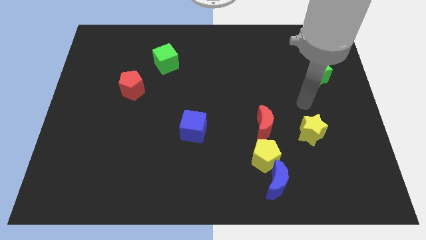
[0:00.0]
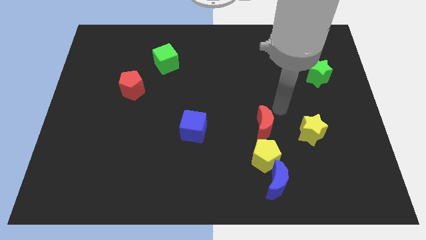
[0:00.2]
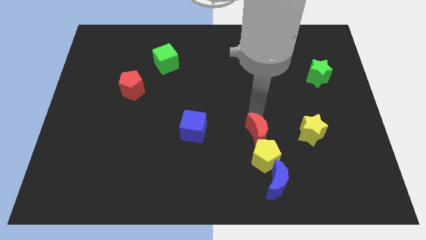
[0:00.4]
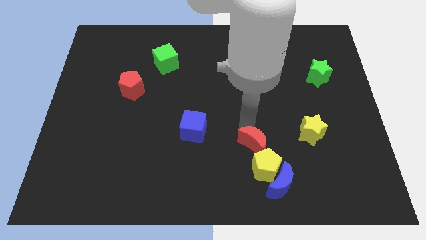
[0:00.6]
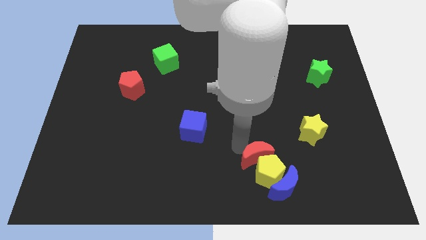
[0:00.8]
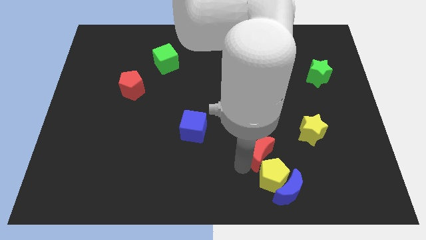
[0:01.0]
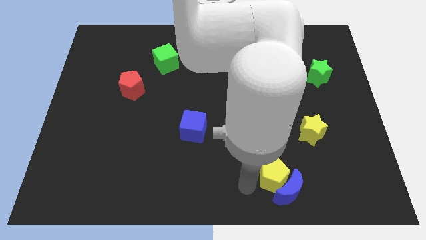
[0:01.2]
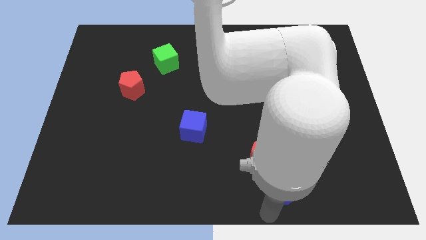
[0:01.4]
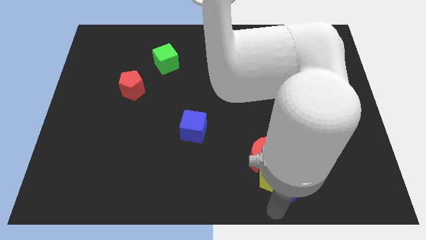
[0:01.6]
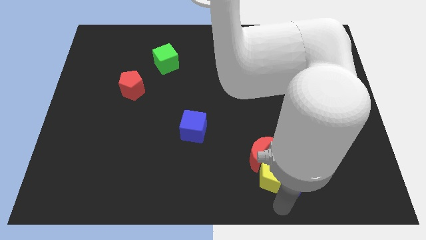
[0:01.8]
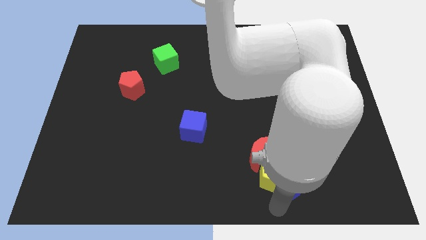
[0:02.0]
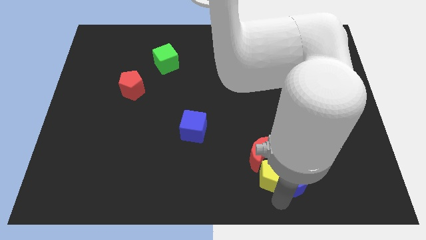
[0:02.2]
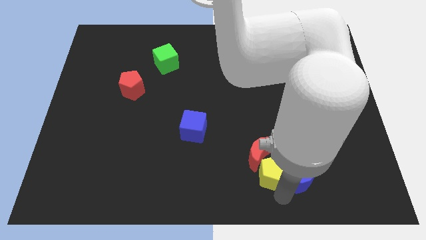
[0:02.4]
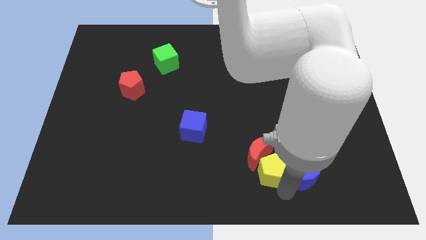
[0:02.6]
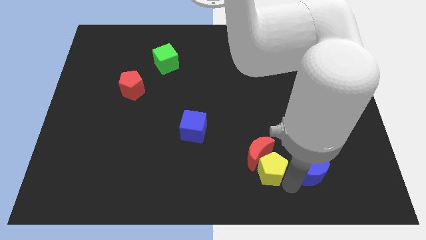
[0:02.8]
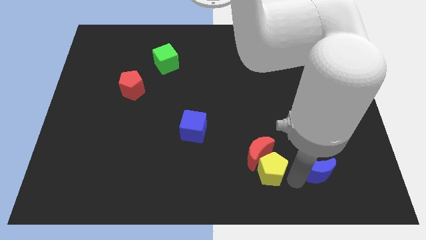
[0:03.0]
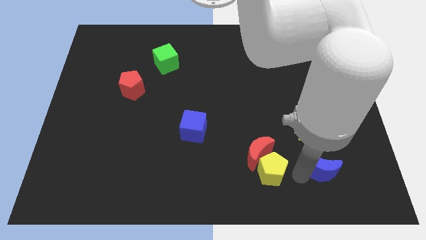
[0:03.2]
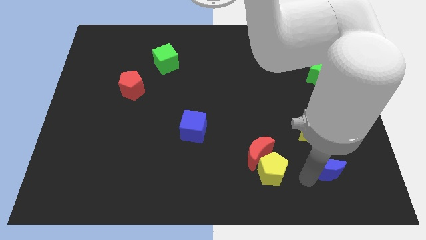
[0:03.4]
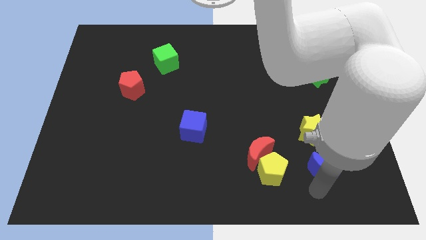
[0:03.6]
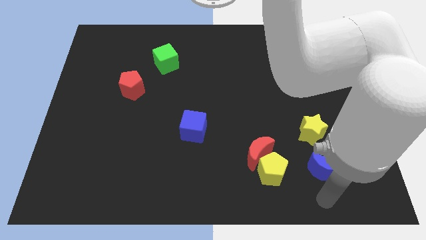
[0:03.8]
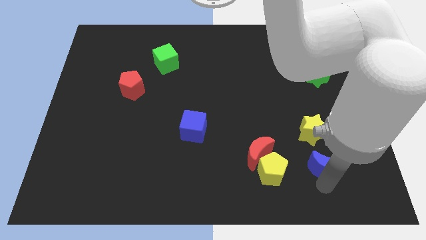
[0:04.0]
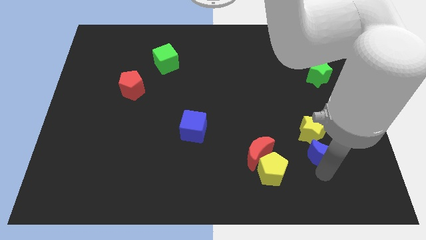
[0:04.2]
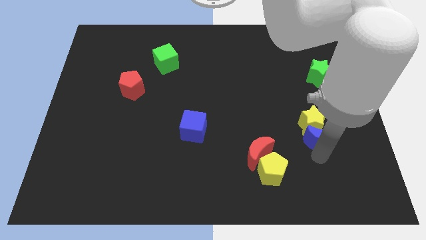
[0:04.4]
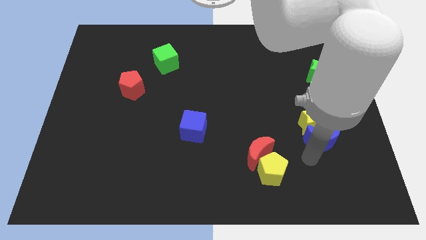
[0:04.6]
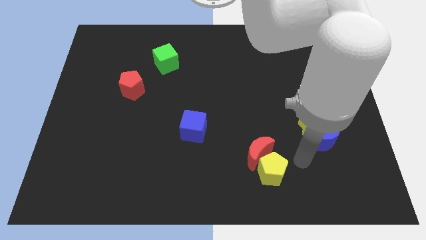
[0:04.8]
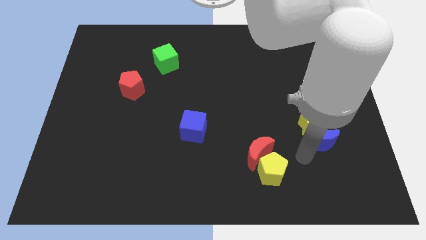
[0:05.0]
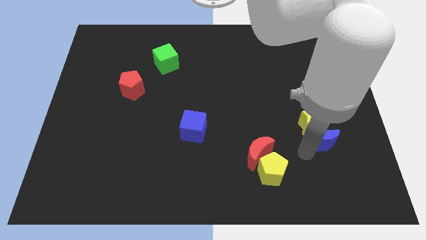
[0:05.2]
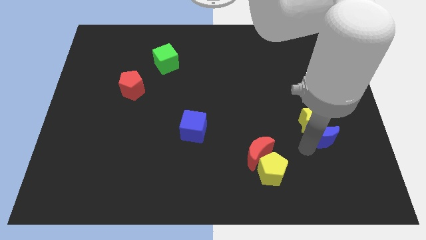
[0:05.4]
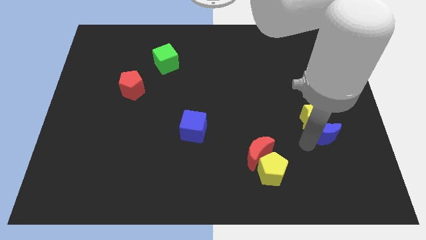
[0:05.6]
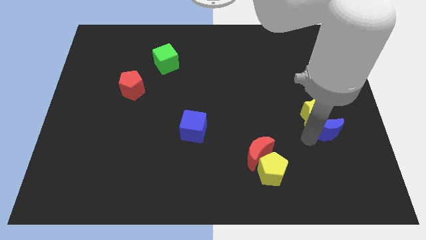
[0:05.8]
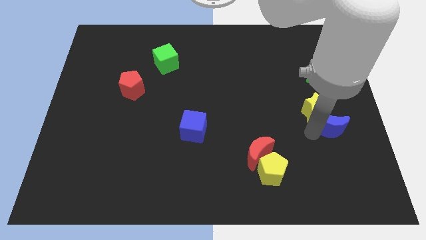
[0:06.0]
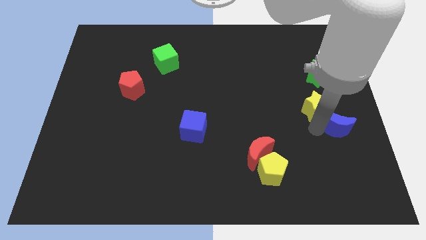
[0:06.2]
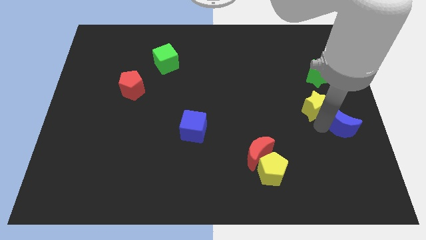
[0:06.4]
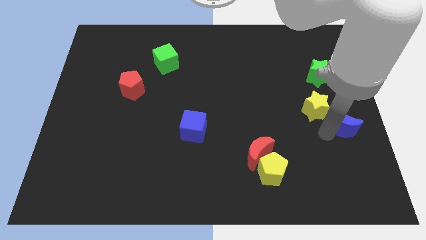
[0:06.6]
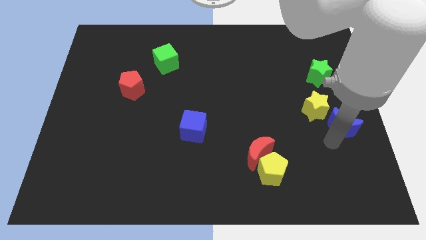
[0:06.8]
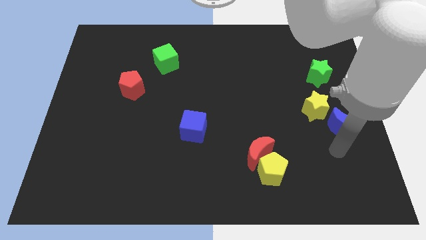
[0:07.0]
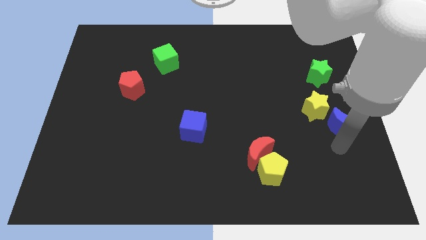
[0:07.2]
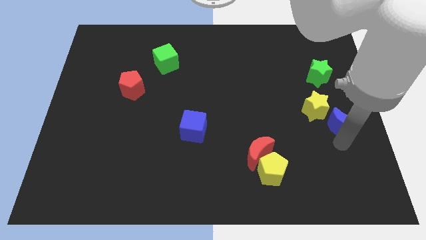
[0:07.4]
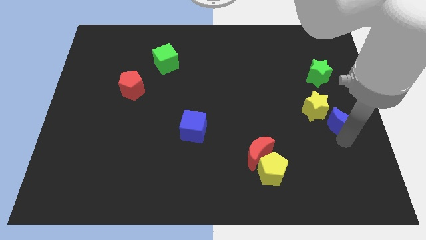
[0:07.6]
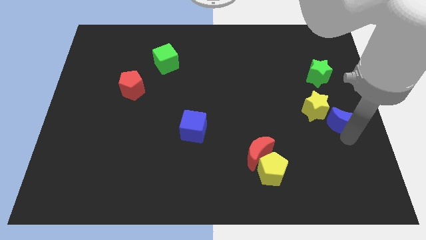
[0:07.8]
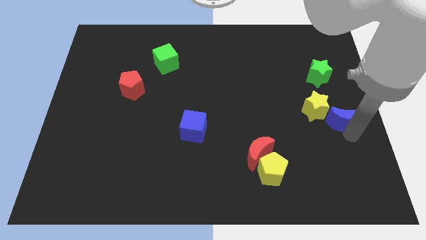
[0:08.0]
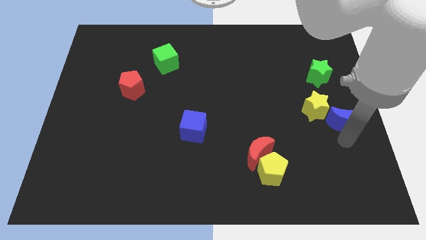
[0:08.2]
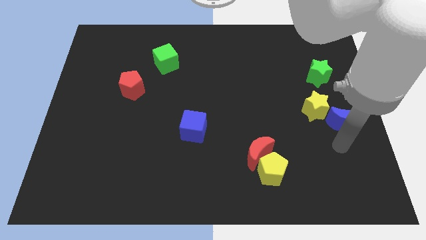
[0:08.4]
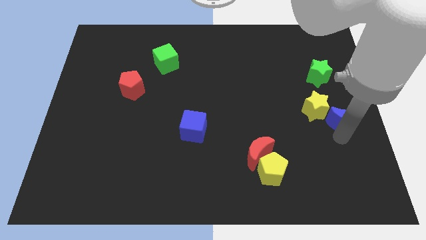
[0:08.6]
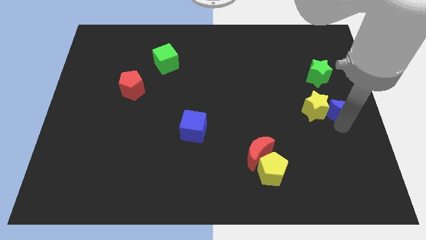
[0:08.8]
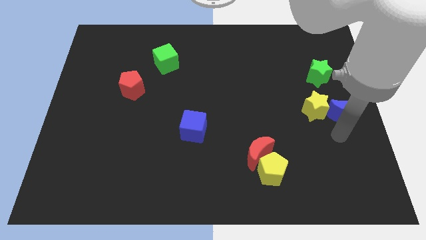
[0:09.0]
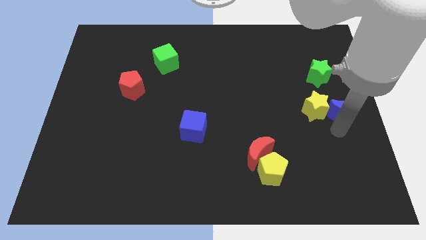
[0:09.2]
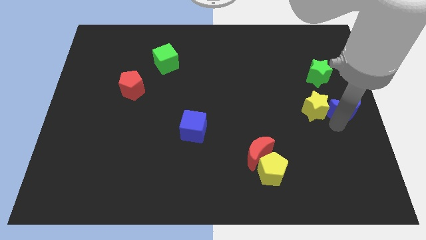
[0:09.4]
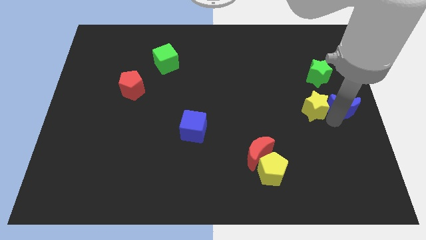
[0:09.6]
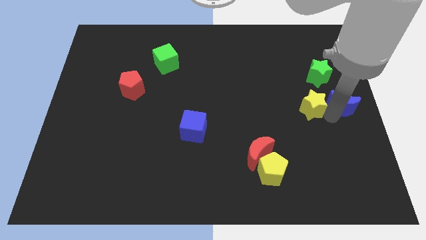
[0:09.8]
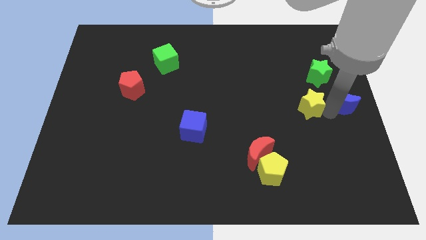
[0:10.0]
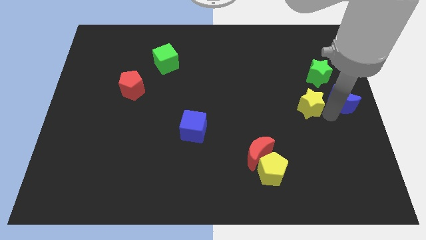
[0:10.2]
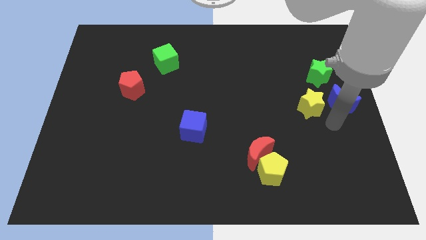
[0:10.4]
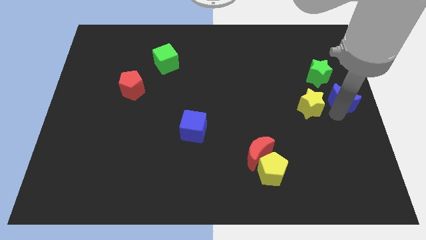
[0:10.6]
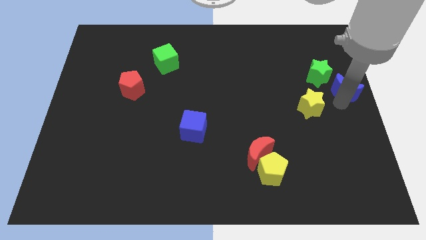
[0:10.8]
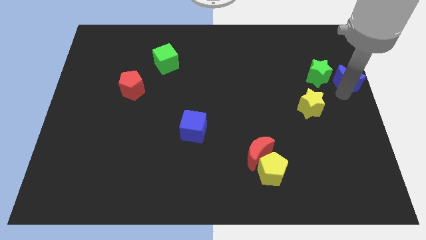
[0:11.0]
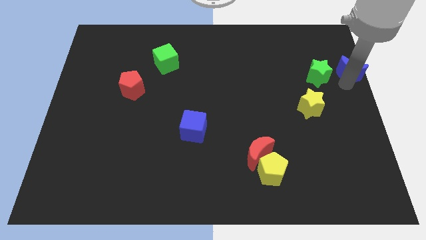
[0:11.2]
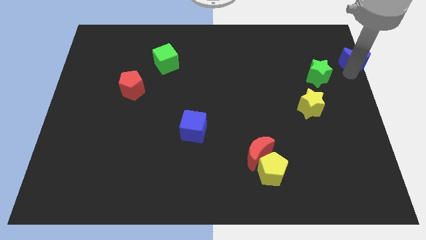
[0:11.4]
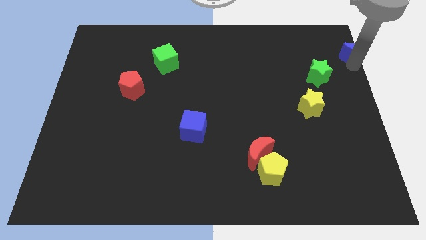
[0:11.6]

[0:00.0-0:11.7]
push the blue moon to the top right corner

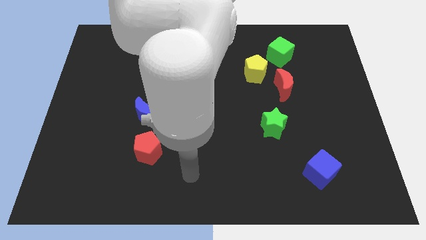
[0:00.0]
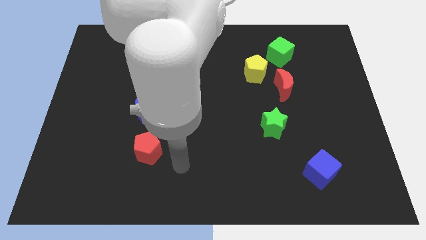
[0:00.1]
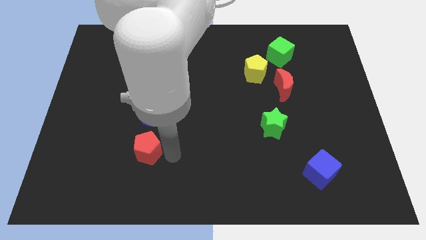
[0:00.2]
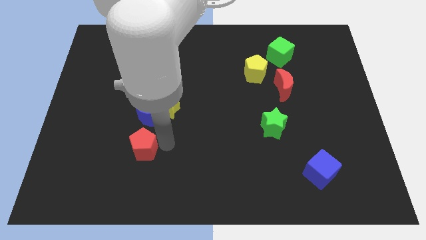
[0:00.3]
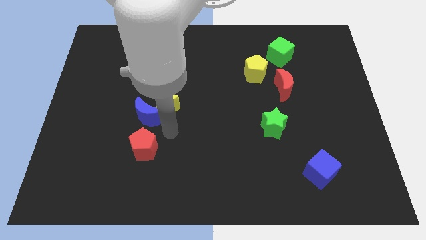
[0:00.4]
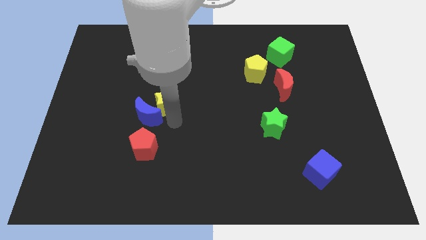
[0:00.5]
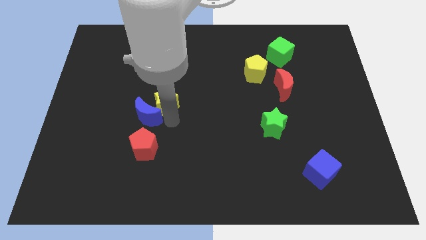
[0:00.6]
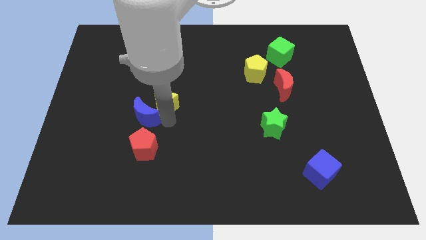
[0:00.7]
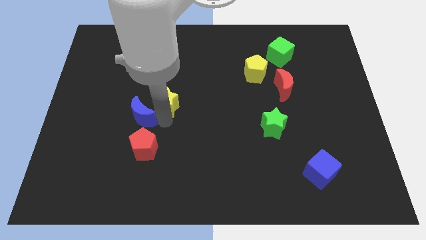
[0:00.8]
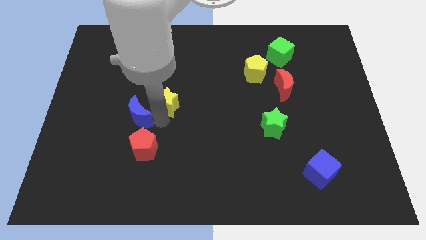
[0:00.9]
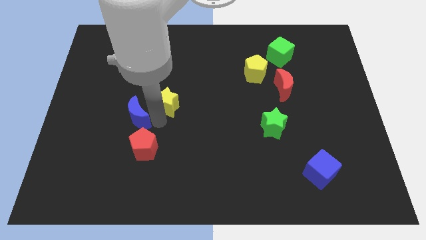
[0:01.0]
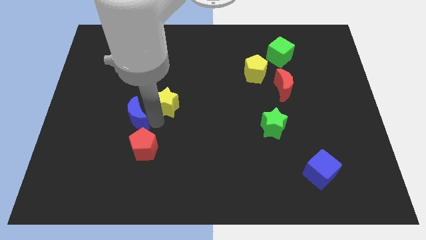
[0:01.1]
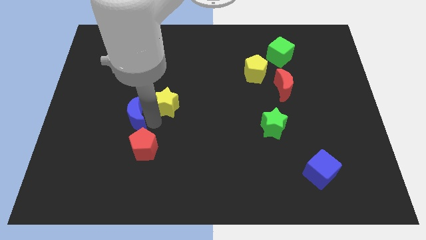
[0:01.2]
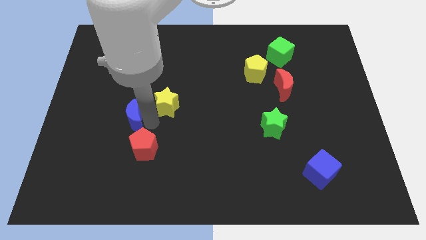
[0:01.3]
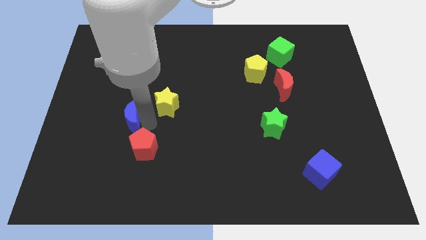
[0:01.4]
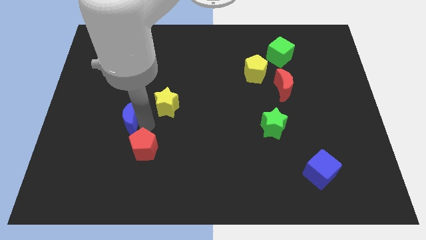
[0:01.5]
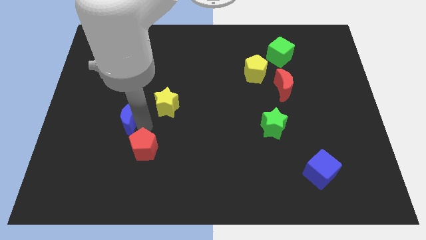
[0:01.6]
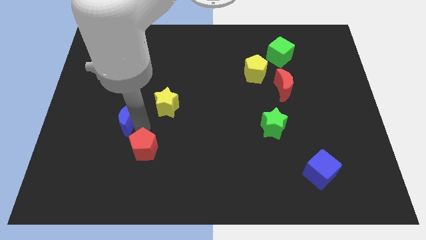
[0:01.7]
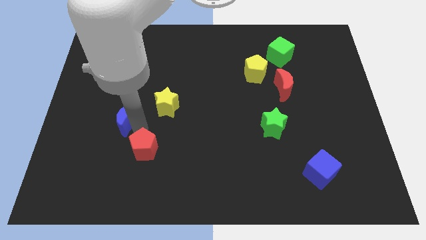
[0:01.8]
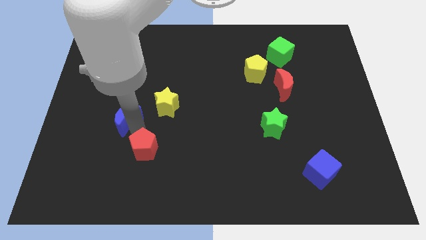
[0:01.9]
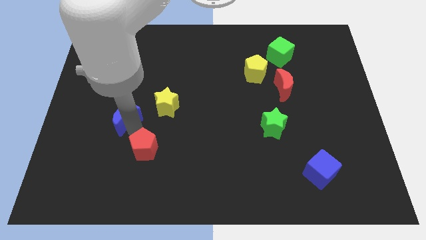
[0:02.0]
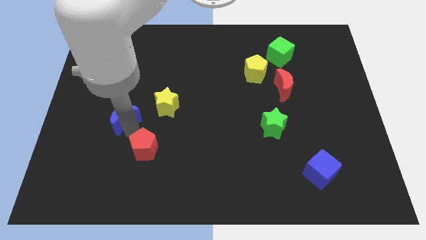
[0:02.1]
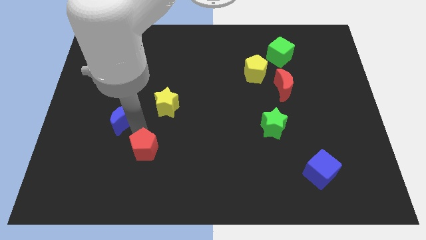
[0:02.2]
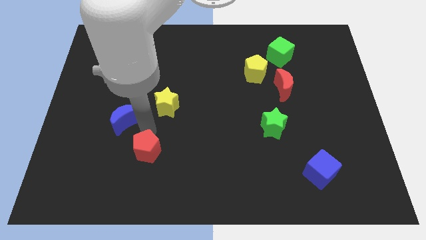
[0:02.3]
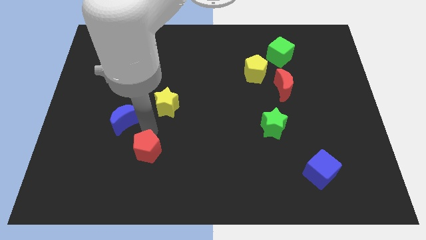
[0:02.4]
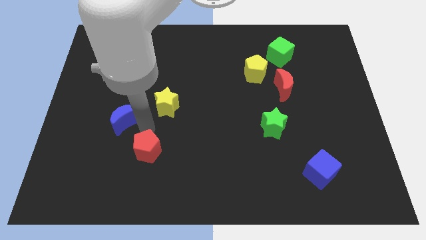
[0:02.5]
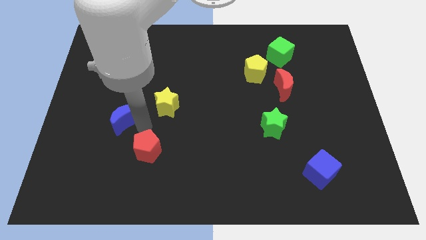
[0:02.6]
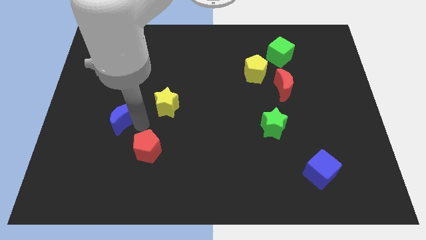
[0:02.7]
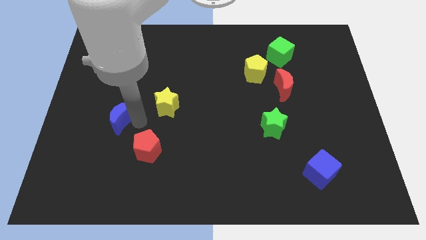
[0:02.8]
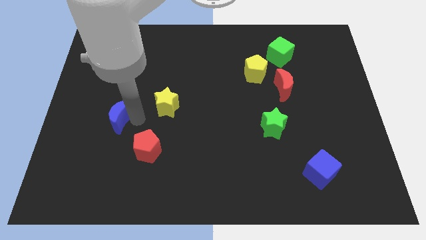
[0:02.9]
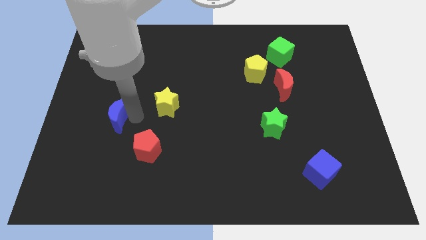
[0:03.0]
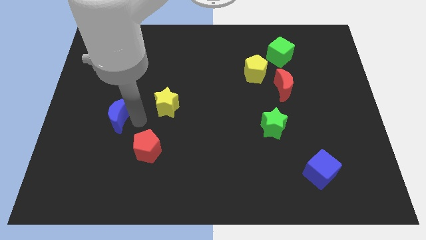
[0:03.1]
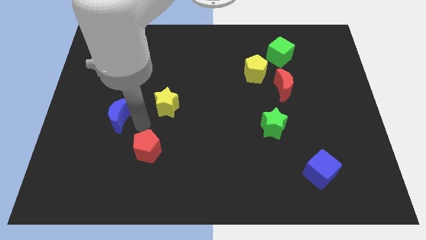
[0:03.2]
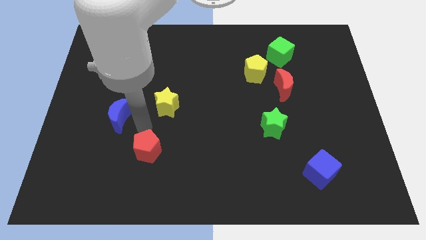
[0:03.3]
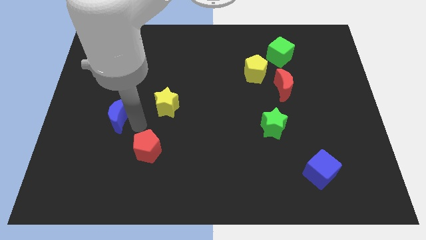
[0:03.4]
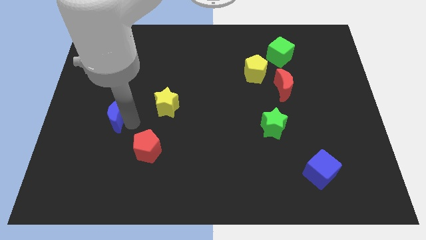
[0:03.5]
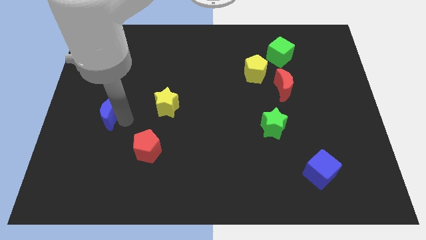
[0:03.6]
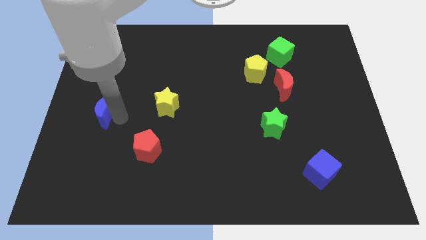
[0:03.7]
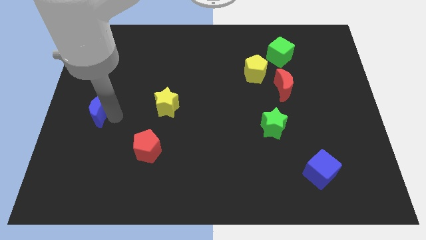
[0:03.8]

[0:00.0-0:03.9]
slide the blue moon to the center left
